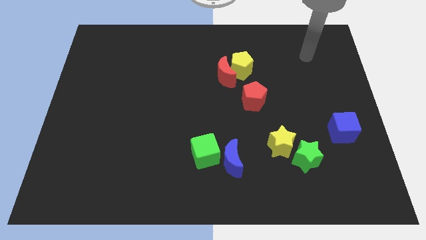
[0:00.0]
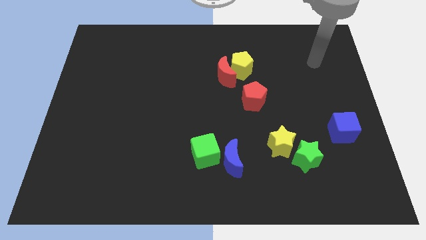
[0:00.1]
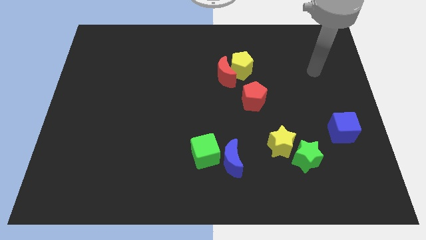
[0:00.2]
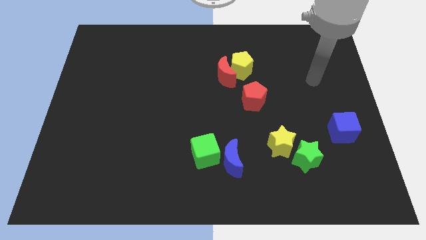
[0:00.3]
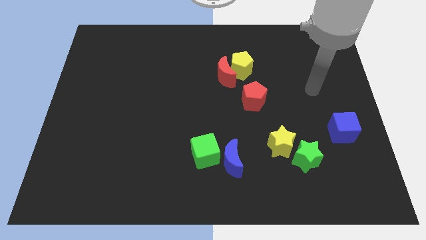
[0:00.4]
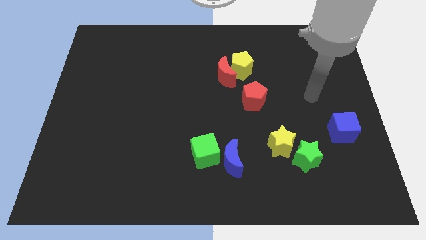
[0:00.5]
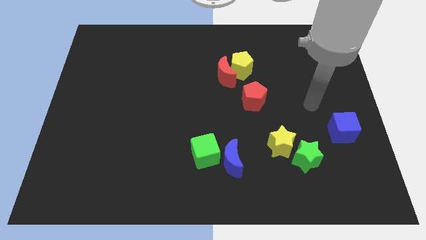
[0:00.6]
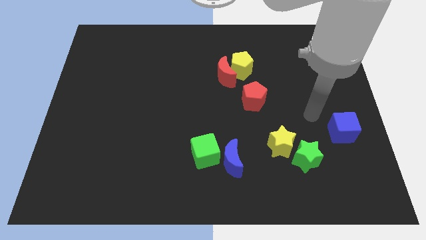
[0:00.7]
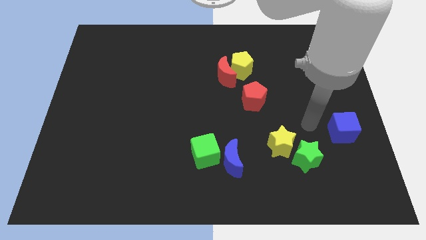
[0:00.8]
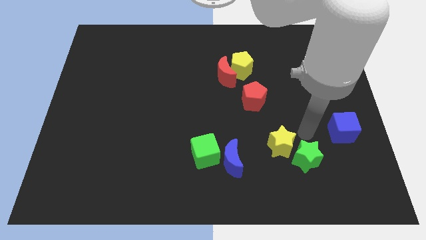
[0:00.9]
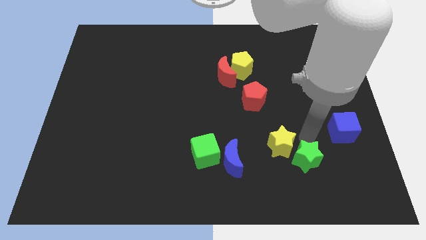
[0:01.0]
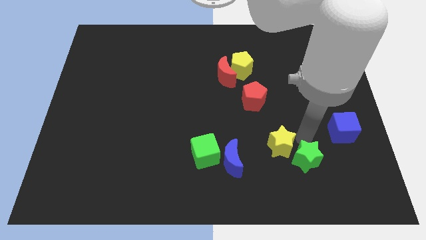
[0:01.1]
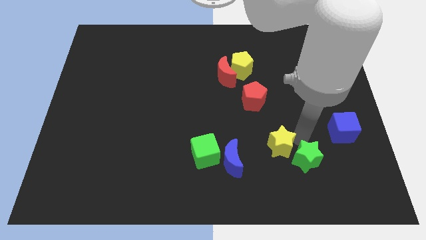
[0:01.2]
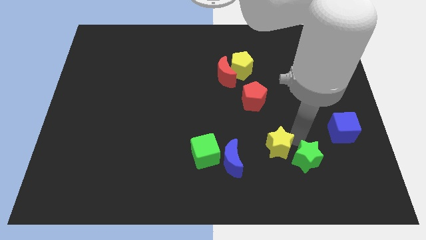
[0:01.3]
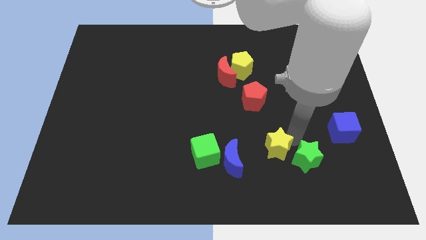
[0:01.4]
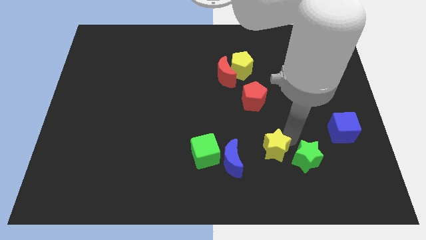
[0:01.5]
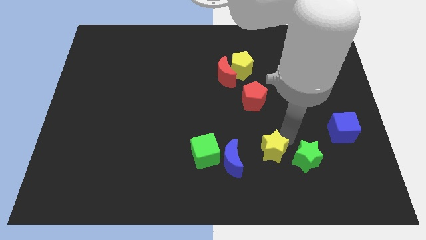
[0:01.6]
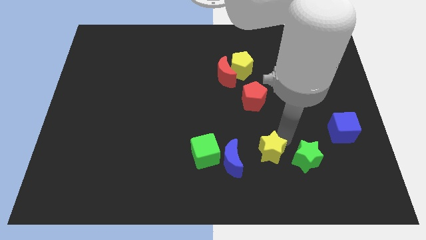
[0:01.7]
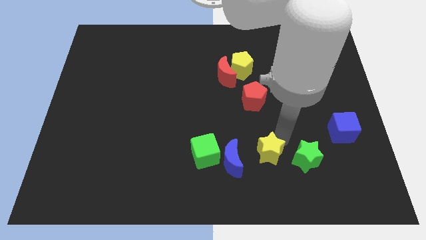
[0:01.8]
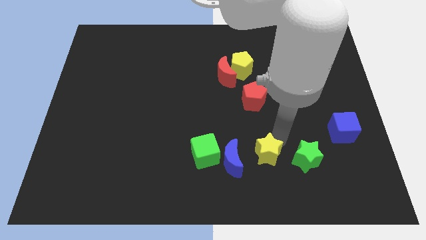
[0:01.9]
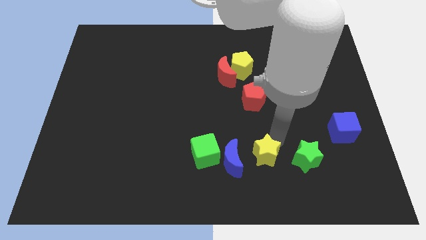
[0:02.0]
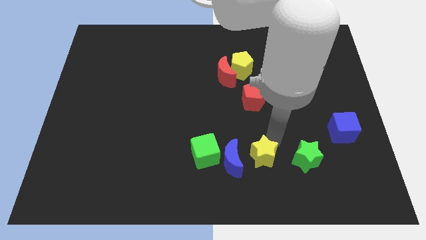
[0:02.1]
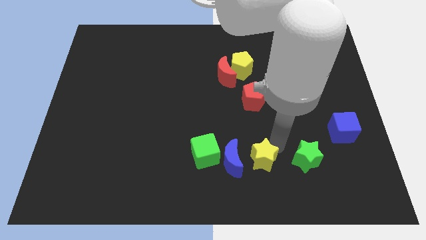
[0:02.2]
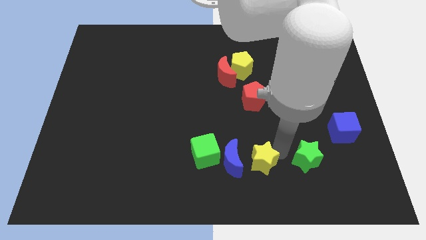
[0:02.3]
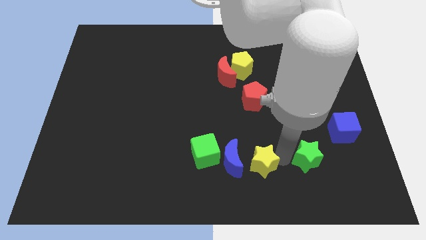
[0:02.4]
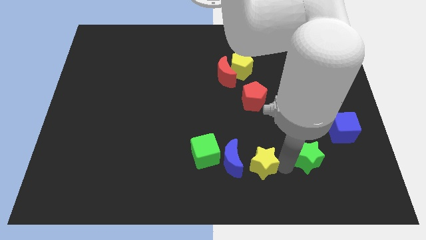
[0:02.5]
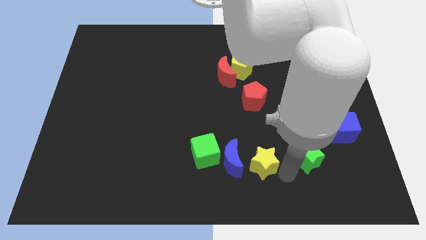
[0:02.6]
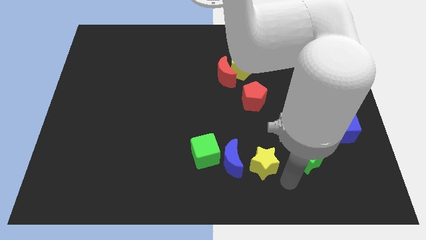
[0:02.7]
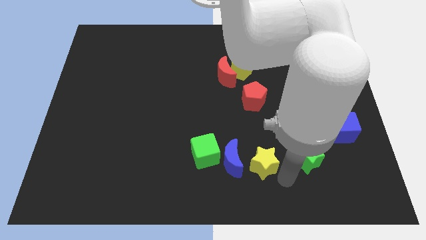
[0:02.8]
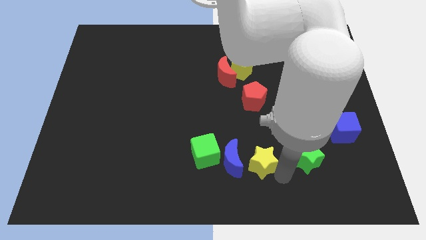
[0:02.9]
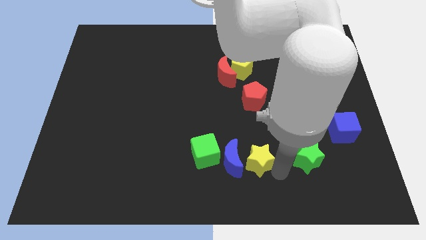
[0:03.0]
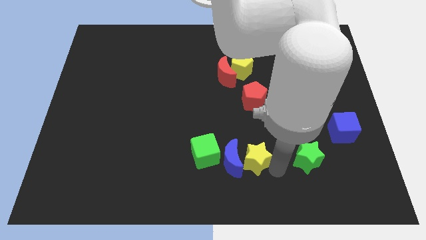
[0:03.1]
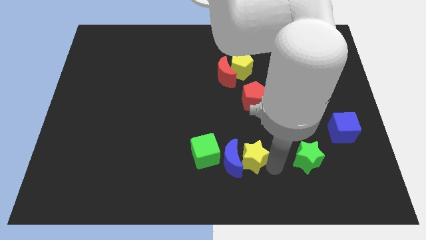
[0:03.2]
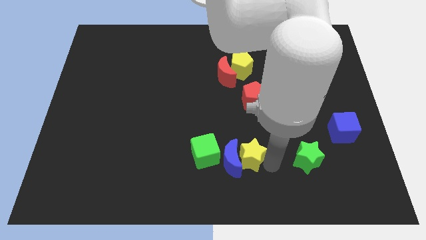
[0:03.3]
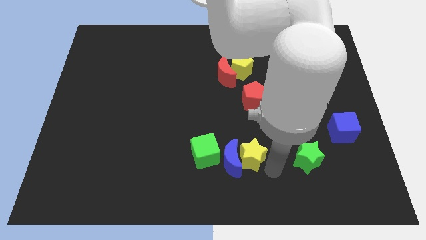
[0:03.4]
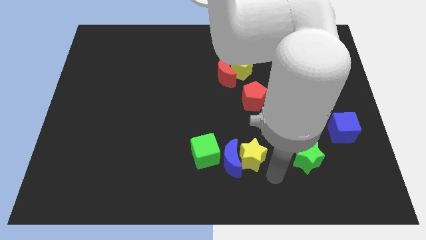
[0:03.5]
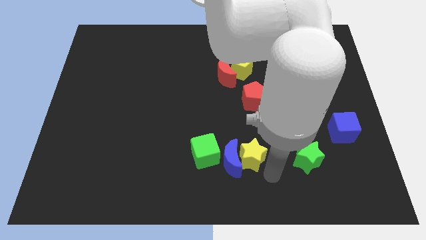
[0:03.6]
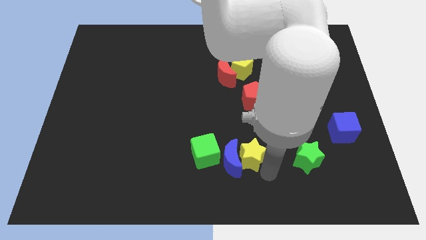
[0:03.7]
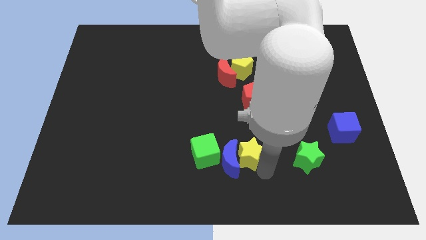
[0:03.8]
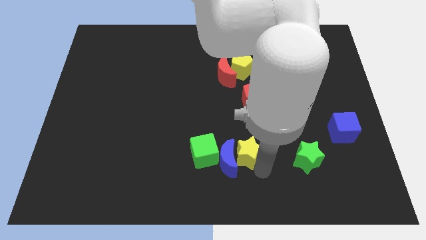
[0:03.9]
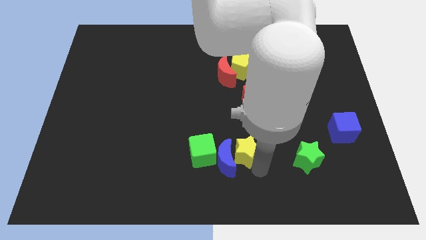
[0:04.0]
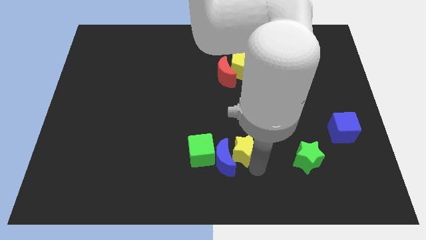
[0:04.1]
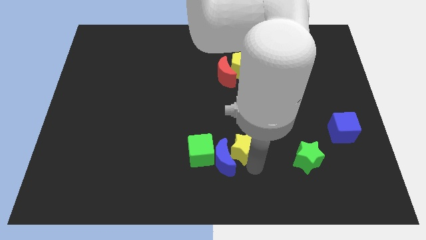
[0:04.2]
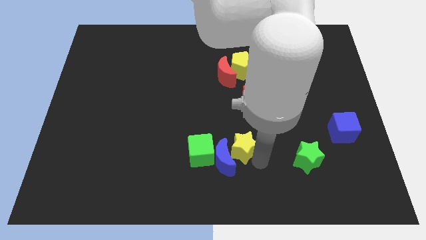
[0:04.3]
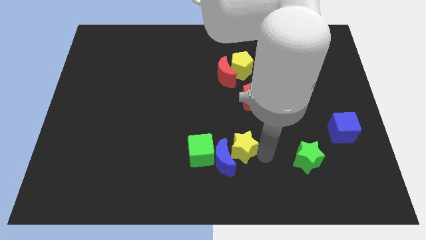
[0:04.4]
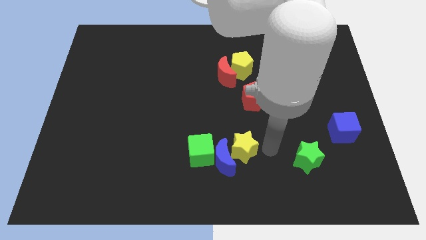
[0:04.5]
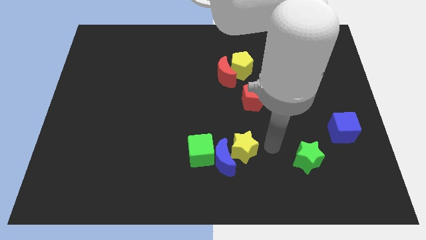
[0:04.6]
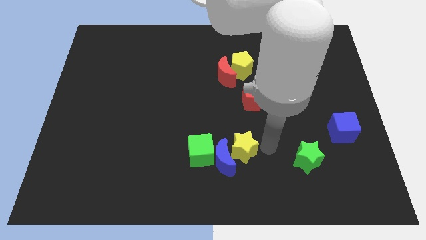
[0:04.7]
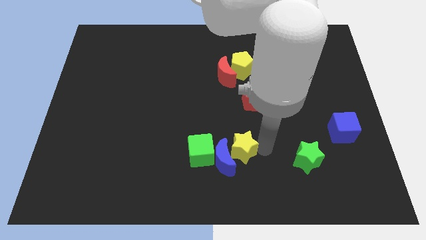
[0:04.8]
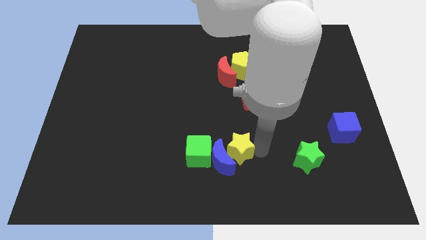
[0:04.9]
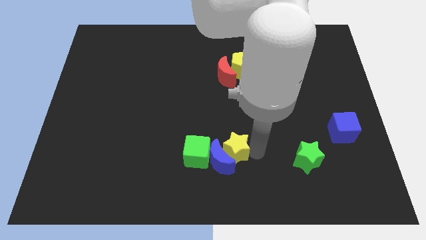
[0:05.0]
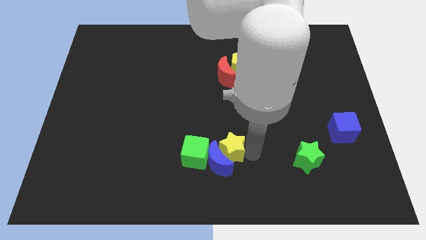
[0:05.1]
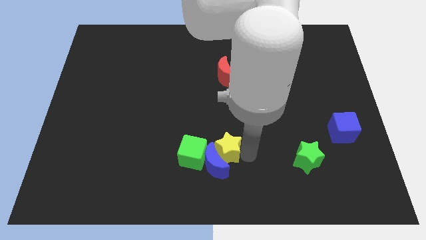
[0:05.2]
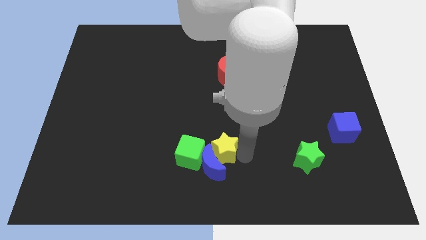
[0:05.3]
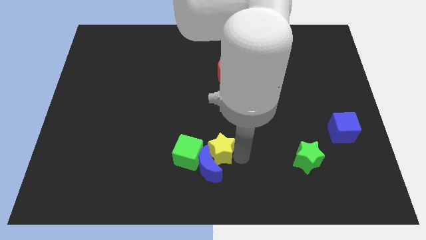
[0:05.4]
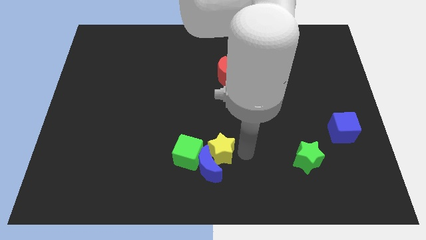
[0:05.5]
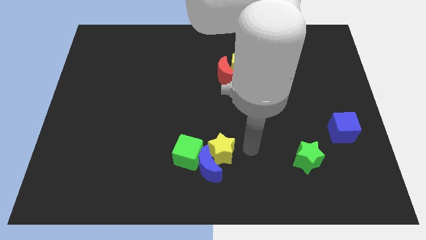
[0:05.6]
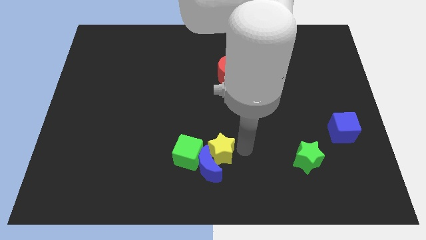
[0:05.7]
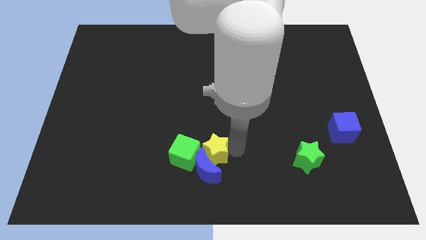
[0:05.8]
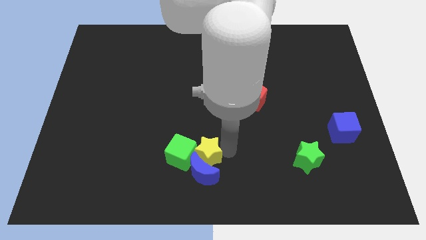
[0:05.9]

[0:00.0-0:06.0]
push the yellow star towards the green cube

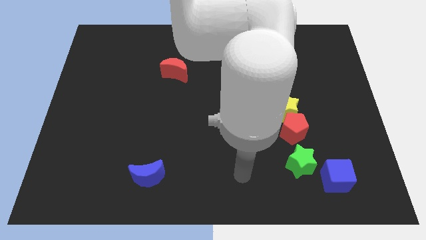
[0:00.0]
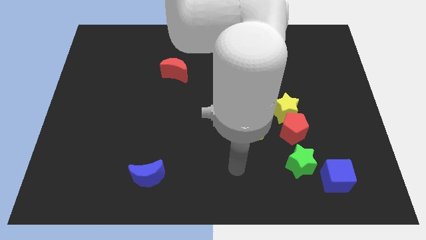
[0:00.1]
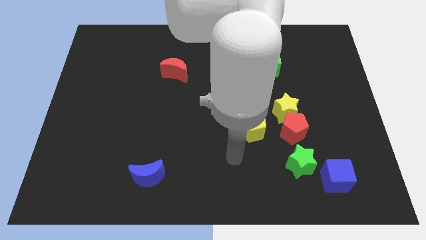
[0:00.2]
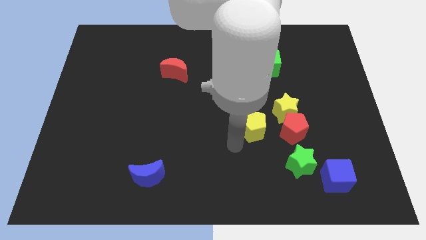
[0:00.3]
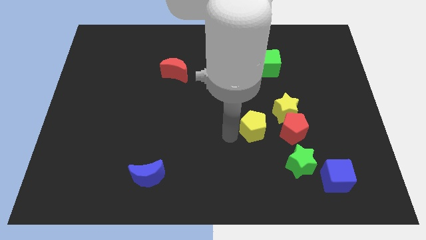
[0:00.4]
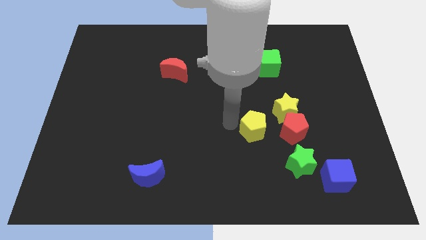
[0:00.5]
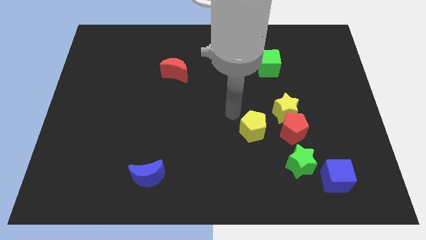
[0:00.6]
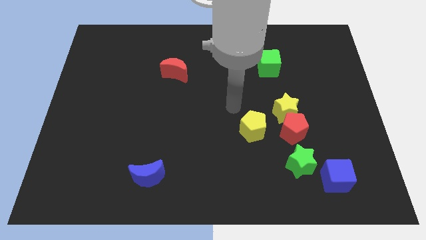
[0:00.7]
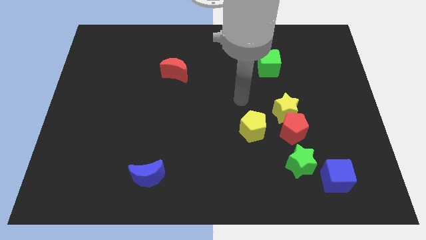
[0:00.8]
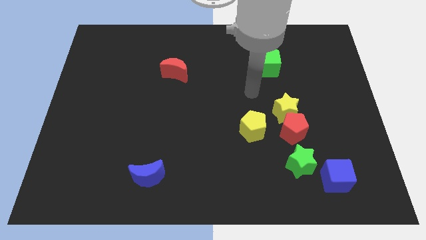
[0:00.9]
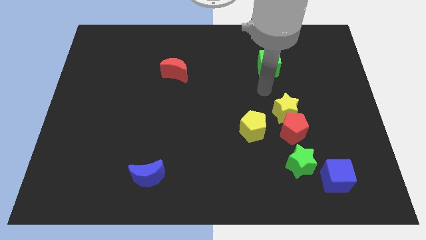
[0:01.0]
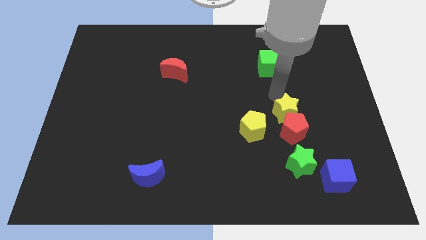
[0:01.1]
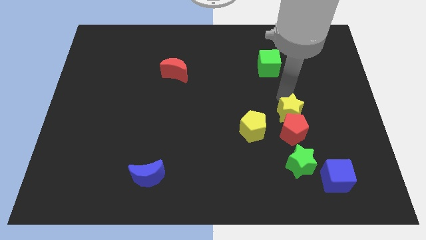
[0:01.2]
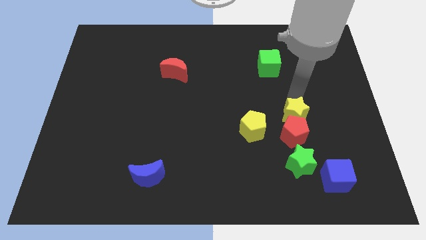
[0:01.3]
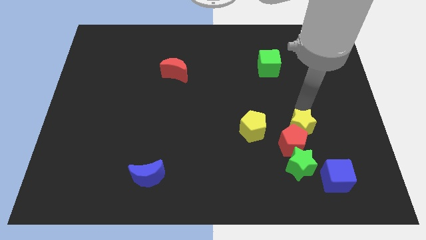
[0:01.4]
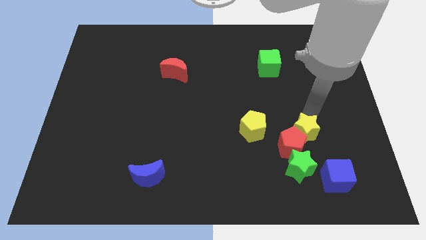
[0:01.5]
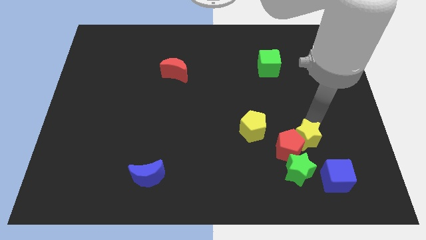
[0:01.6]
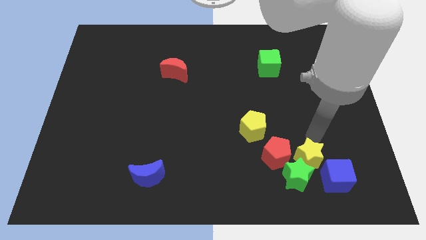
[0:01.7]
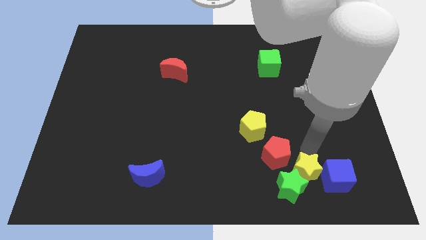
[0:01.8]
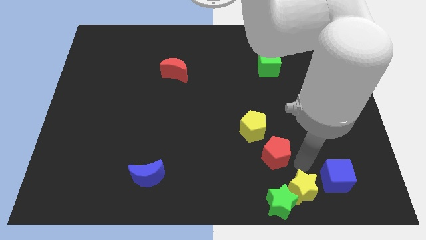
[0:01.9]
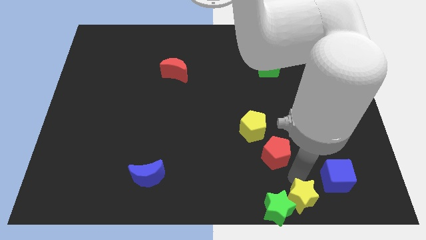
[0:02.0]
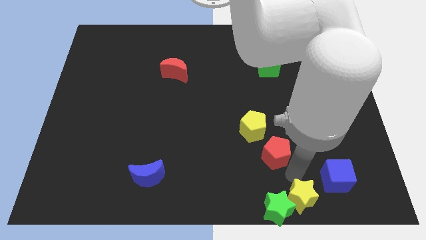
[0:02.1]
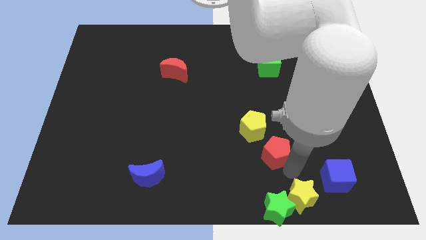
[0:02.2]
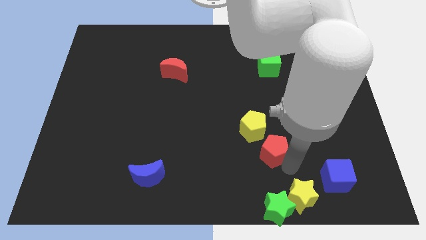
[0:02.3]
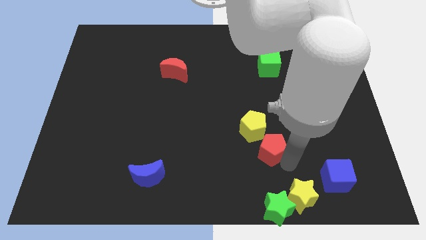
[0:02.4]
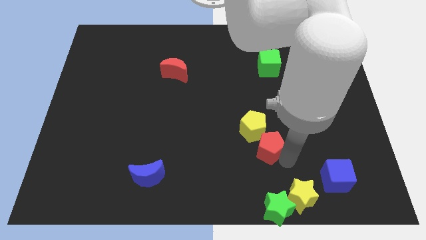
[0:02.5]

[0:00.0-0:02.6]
slide the red pentagon to the yellow pentagon
